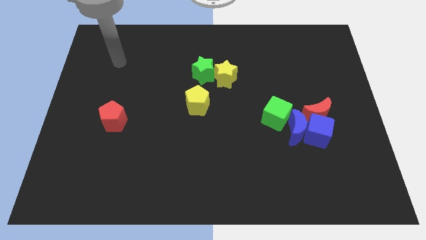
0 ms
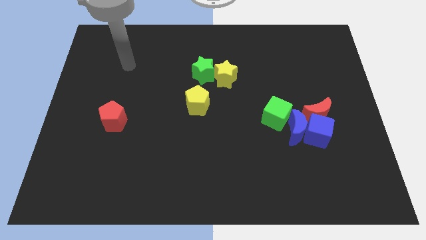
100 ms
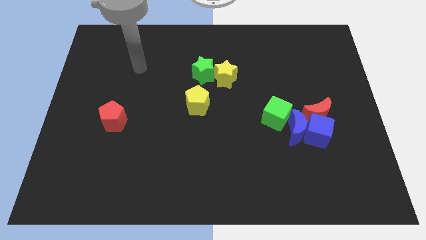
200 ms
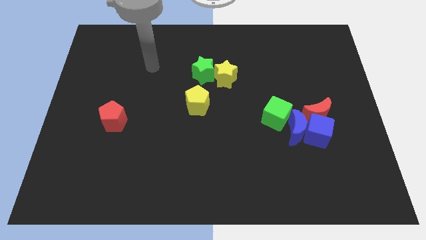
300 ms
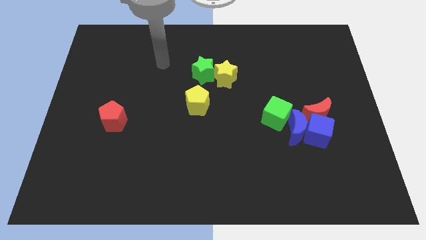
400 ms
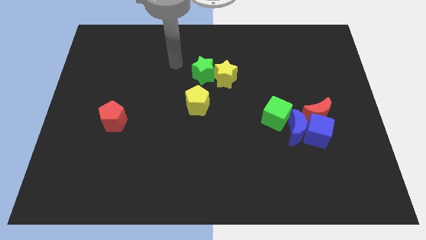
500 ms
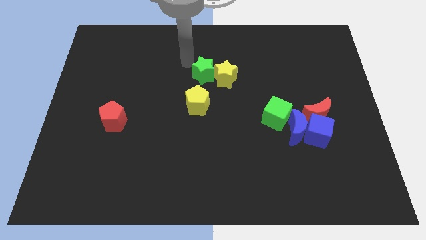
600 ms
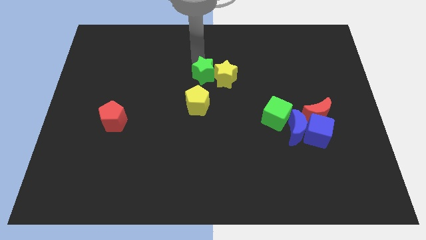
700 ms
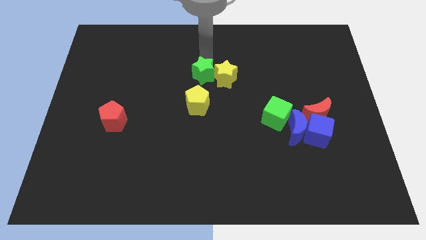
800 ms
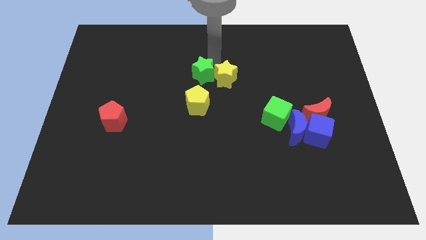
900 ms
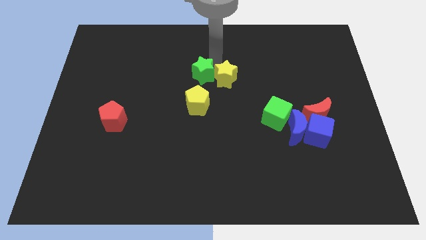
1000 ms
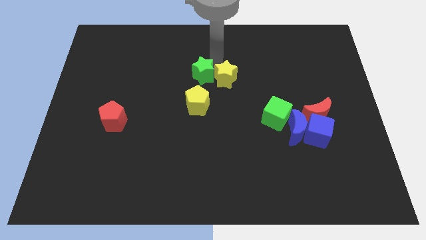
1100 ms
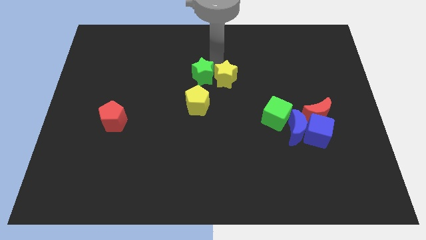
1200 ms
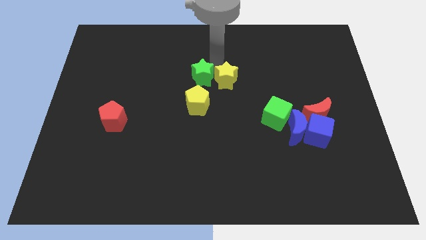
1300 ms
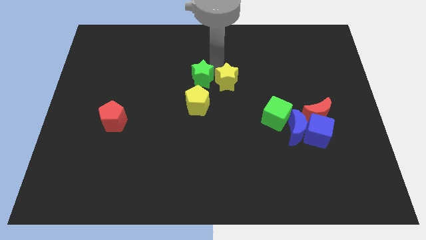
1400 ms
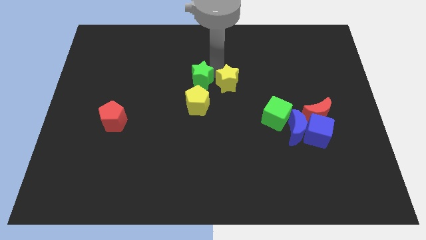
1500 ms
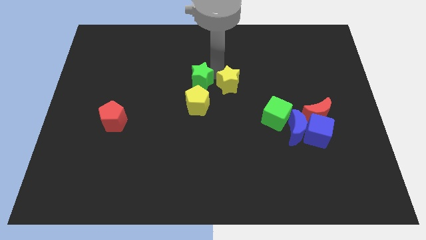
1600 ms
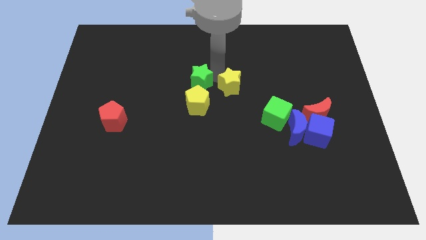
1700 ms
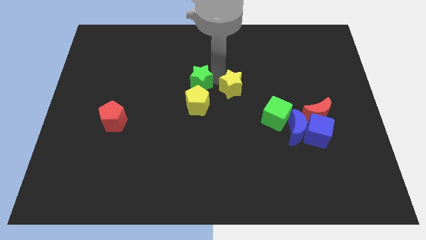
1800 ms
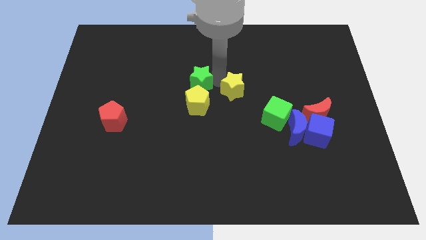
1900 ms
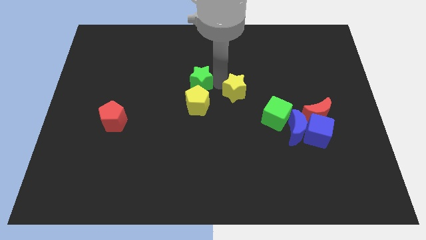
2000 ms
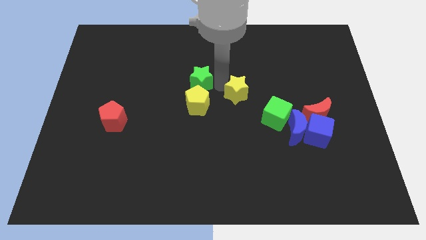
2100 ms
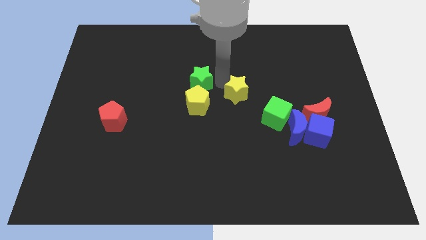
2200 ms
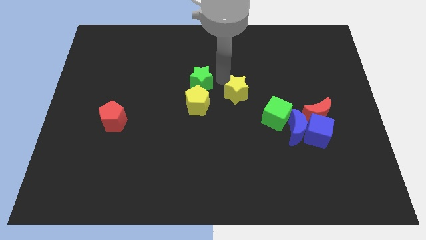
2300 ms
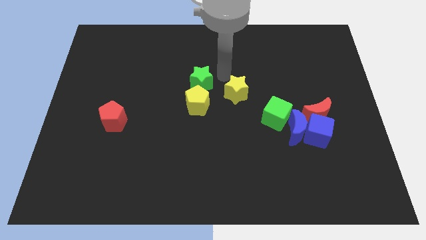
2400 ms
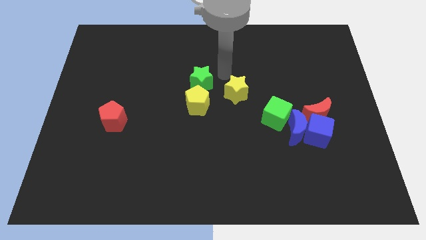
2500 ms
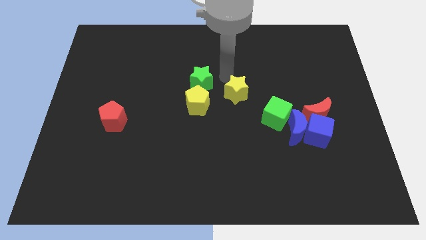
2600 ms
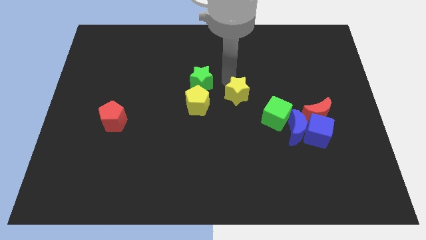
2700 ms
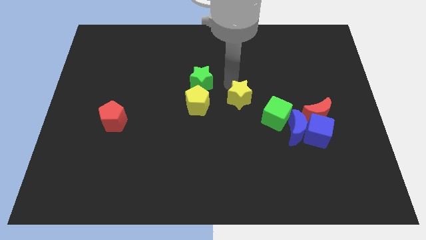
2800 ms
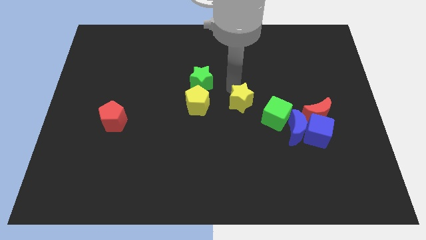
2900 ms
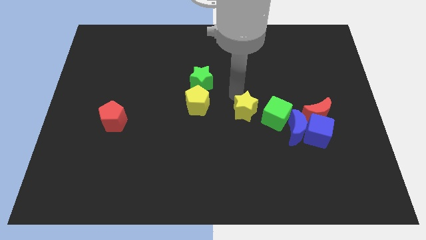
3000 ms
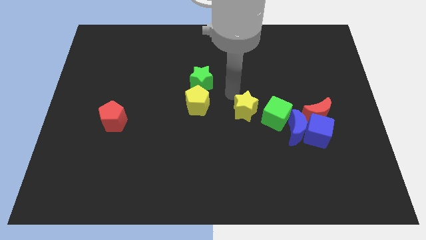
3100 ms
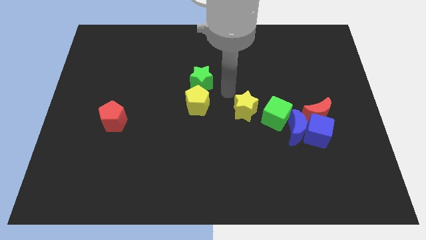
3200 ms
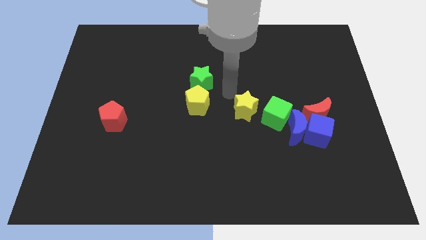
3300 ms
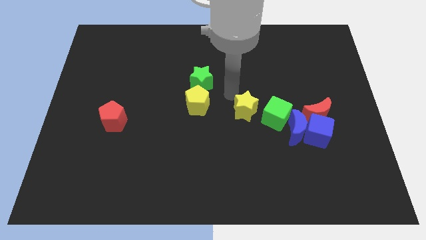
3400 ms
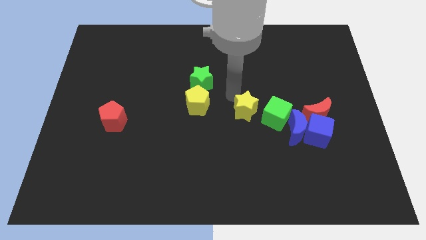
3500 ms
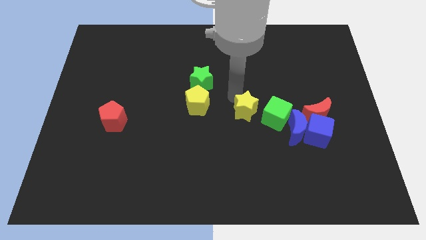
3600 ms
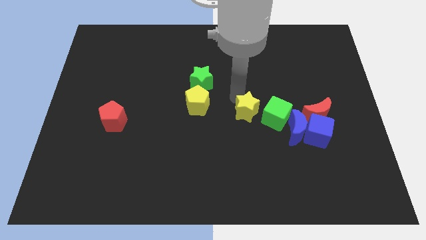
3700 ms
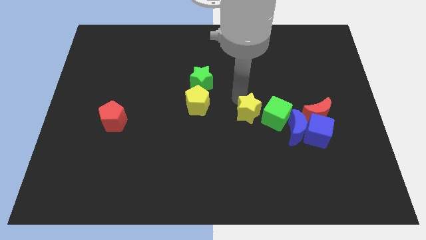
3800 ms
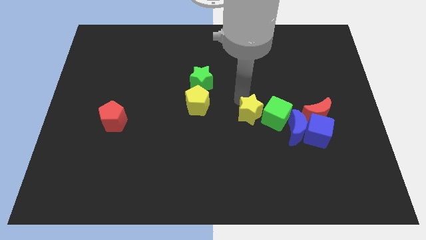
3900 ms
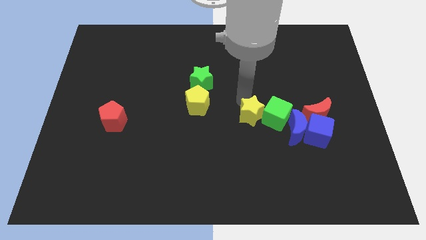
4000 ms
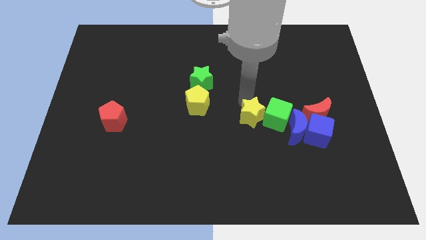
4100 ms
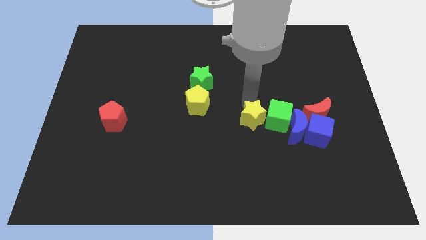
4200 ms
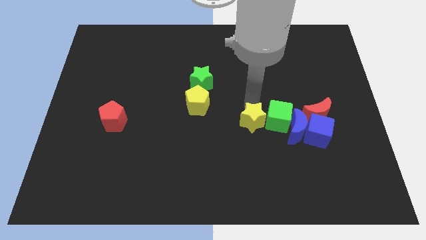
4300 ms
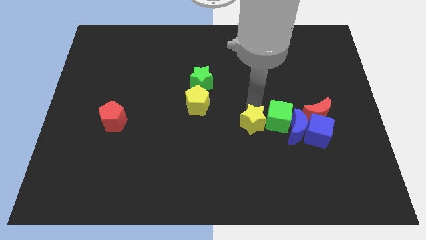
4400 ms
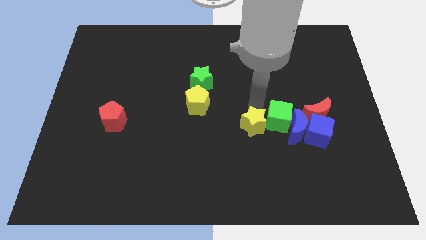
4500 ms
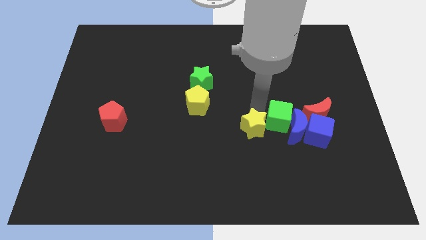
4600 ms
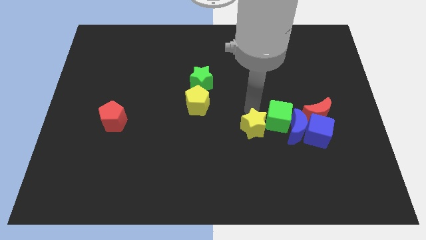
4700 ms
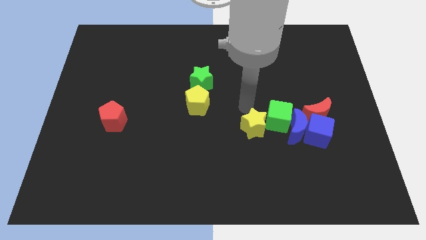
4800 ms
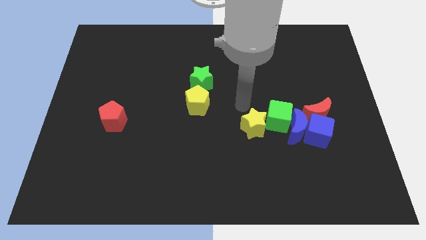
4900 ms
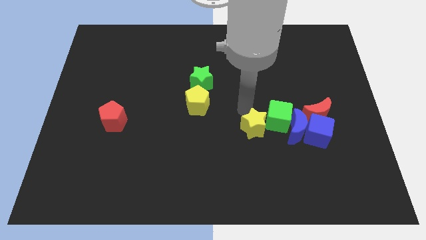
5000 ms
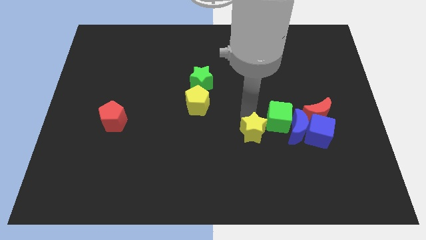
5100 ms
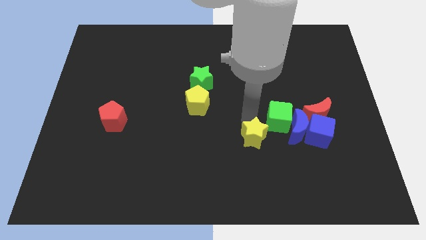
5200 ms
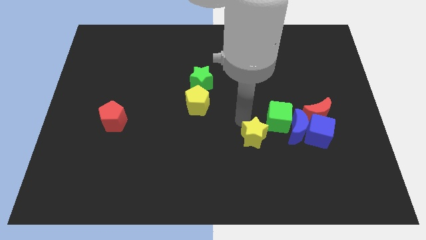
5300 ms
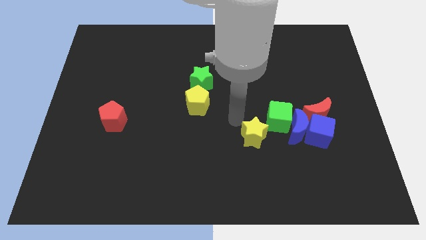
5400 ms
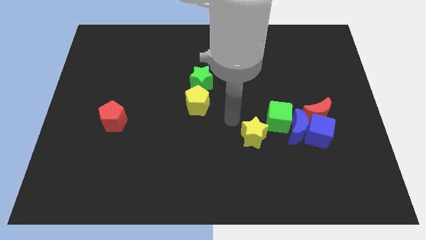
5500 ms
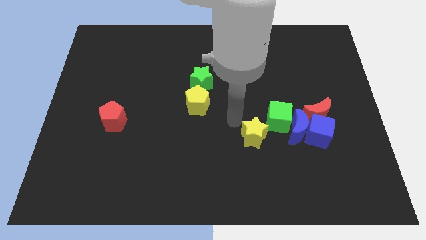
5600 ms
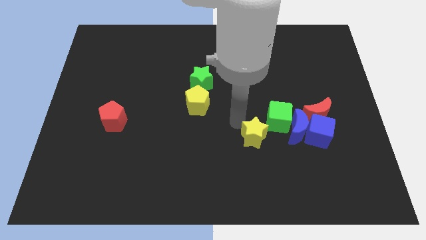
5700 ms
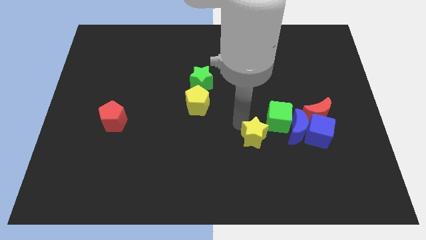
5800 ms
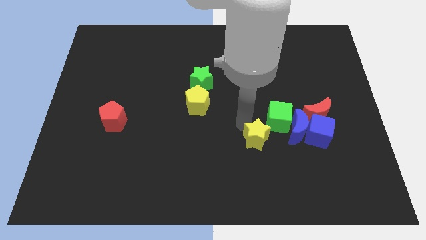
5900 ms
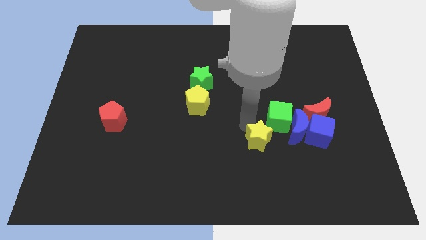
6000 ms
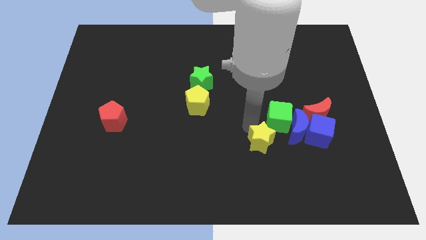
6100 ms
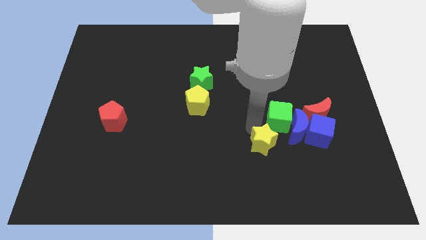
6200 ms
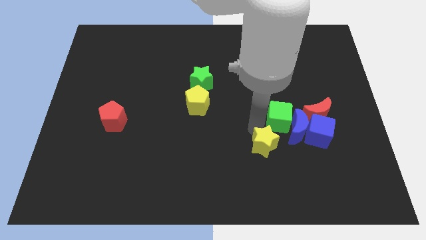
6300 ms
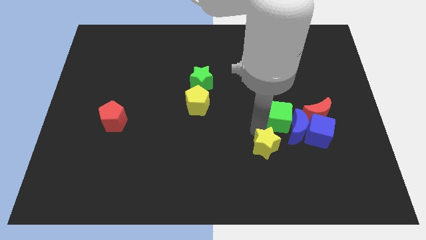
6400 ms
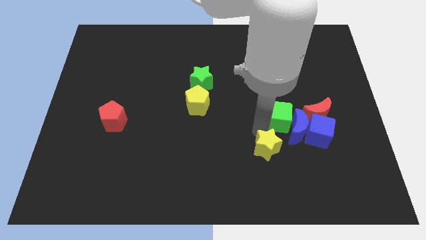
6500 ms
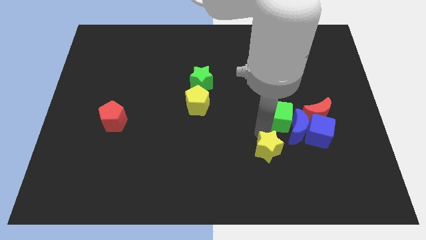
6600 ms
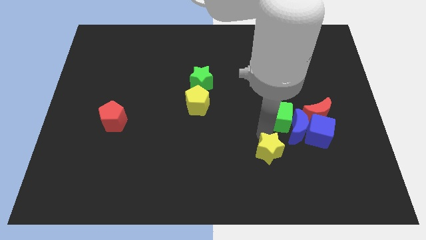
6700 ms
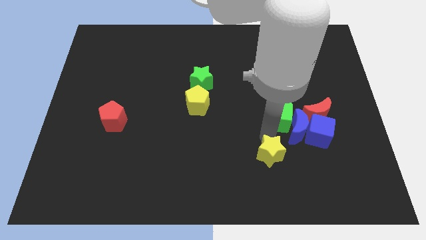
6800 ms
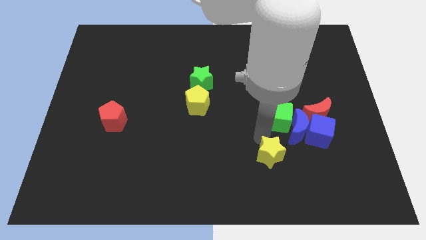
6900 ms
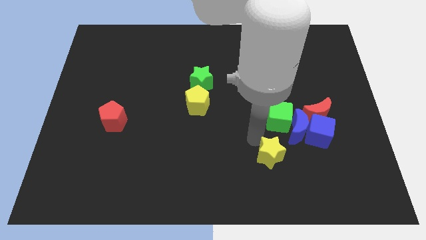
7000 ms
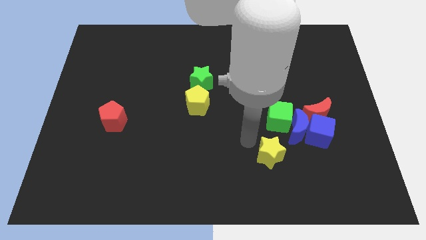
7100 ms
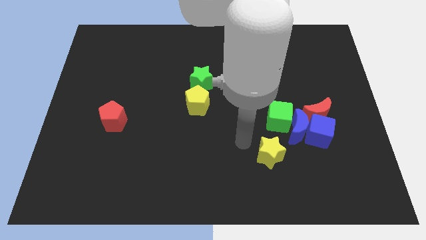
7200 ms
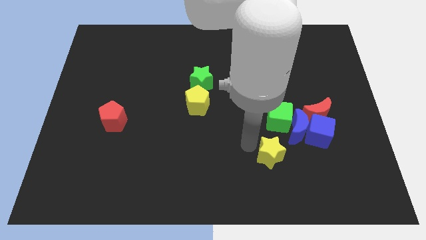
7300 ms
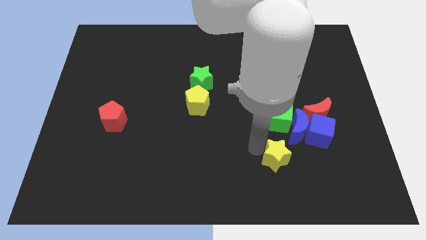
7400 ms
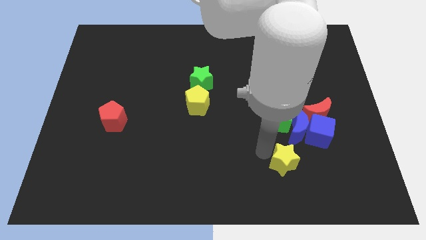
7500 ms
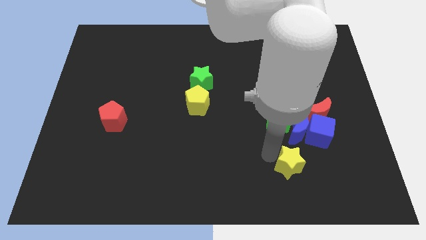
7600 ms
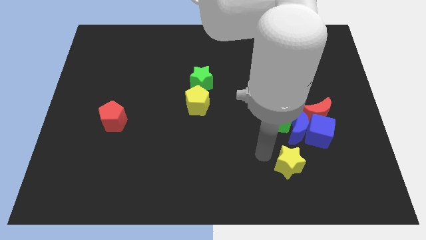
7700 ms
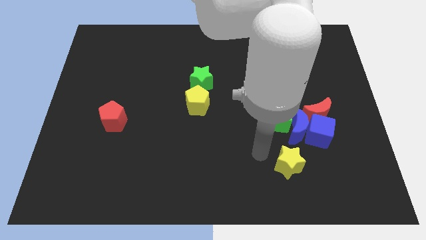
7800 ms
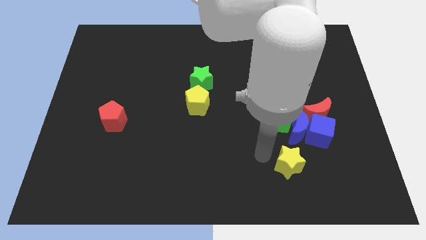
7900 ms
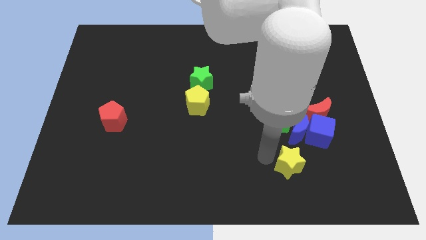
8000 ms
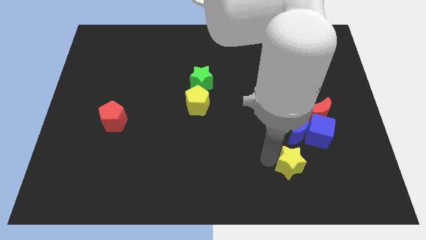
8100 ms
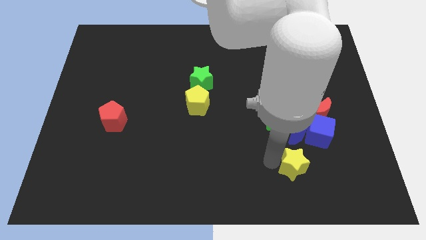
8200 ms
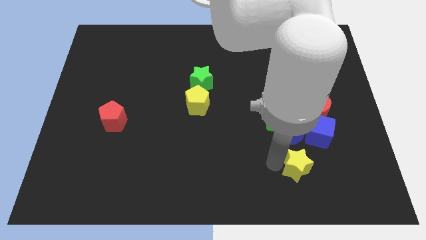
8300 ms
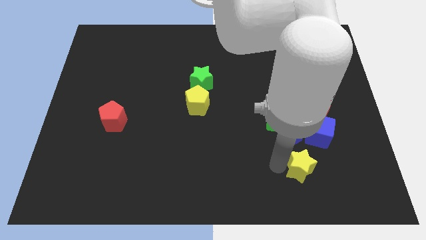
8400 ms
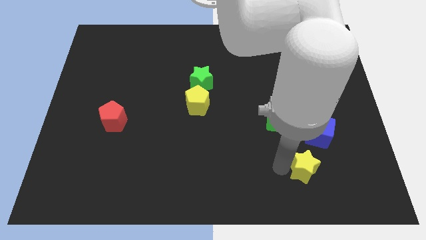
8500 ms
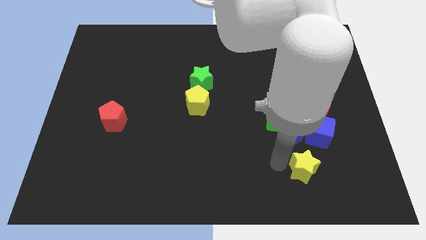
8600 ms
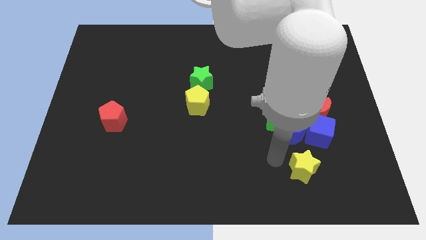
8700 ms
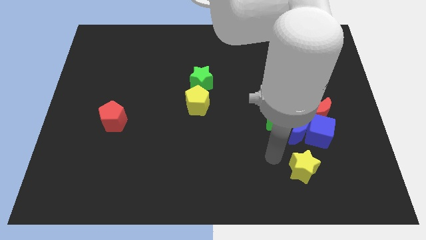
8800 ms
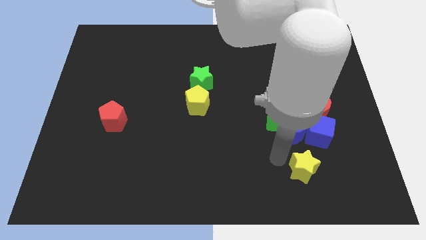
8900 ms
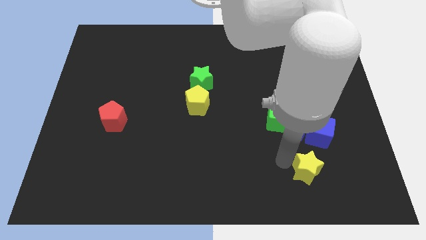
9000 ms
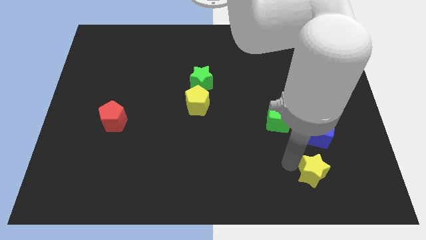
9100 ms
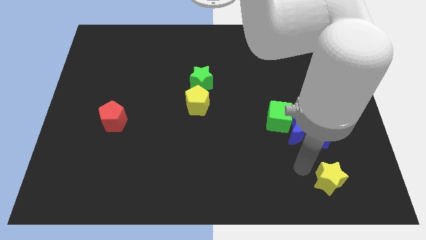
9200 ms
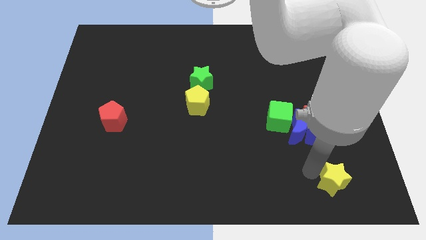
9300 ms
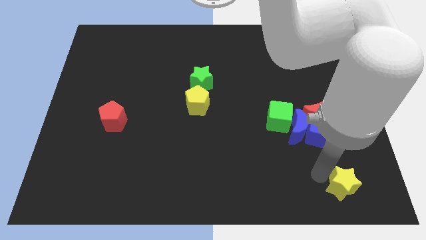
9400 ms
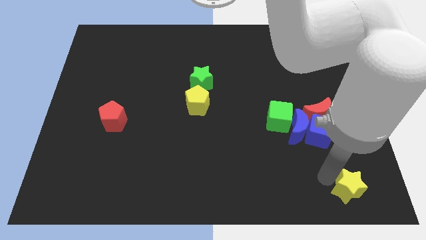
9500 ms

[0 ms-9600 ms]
move the yellow star to the bottom right corner
